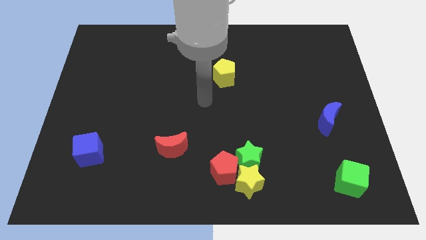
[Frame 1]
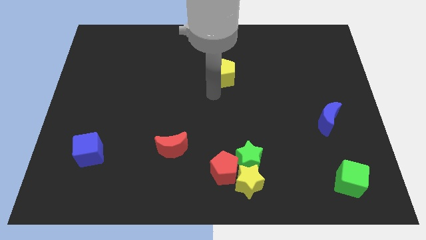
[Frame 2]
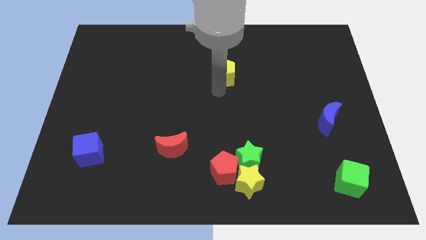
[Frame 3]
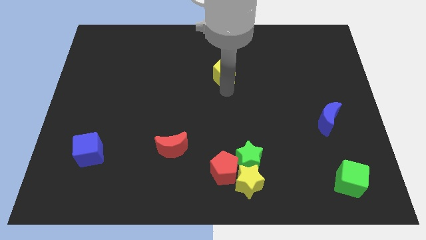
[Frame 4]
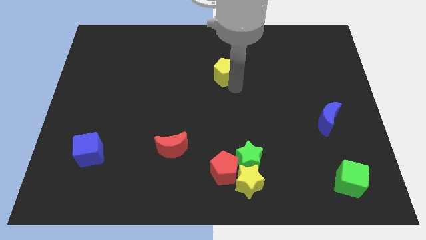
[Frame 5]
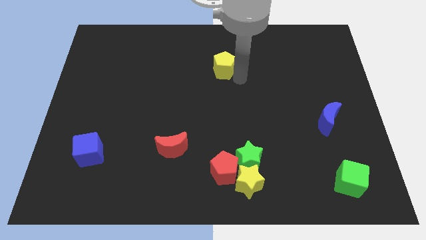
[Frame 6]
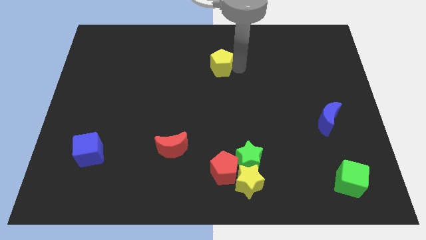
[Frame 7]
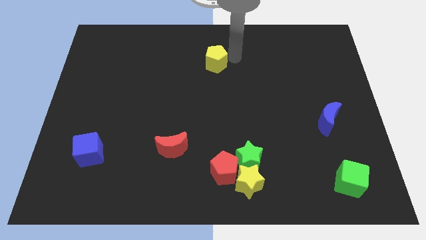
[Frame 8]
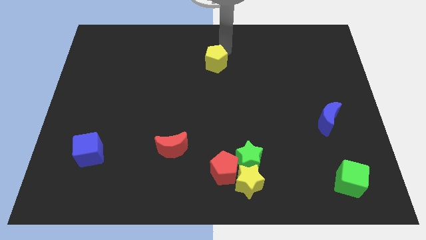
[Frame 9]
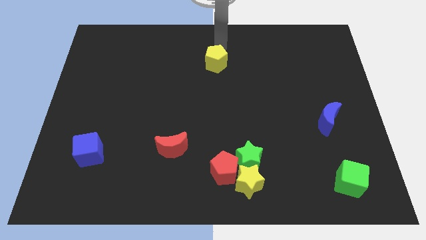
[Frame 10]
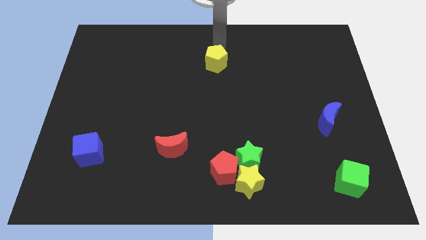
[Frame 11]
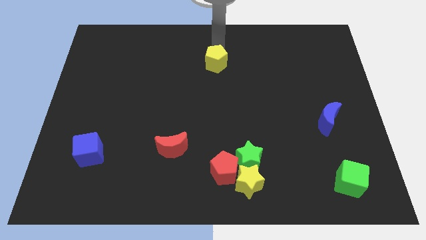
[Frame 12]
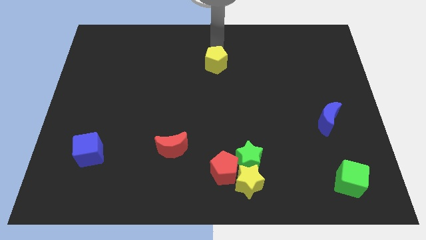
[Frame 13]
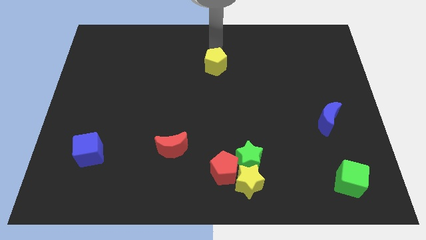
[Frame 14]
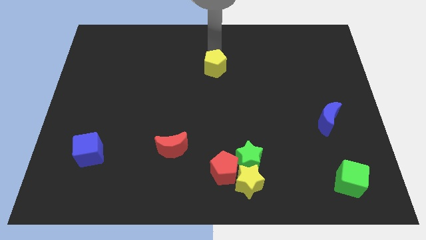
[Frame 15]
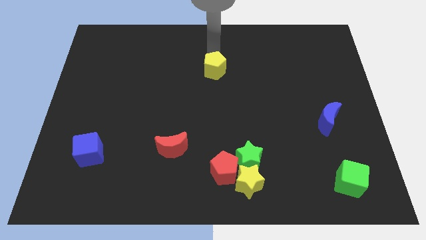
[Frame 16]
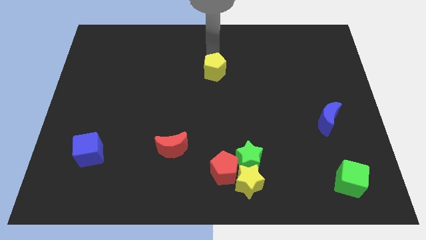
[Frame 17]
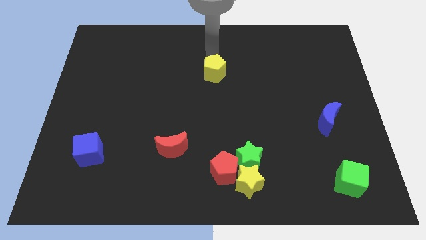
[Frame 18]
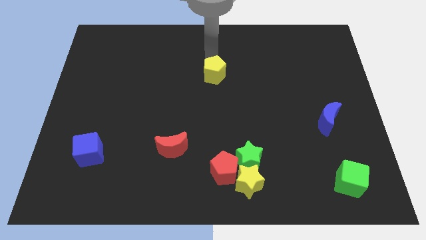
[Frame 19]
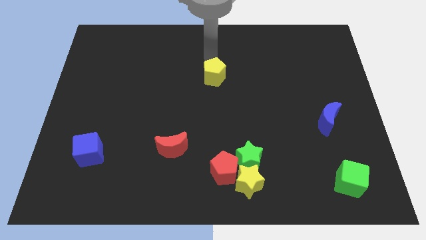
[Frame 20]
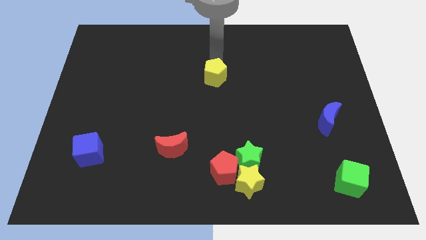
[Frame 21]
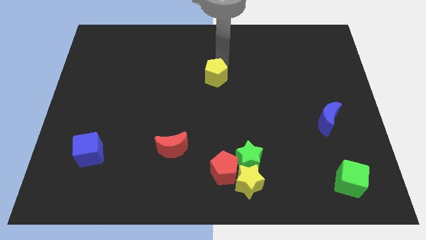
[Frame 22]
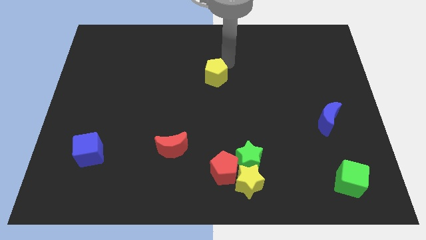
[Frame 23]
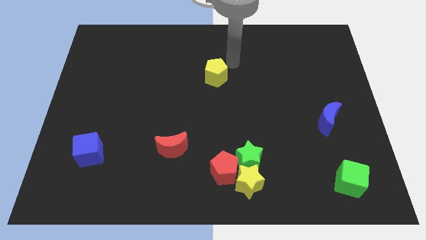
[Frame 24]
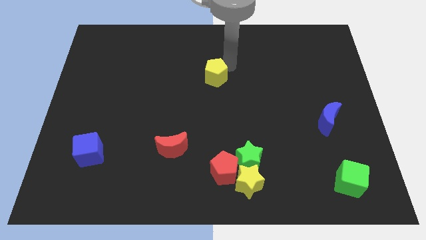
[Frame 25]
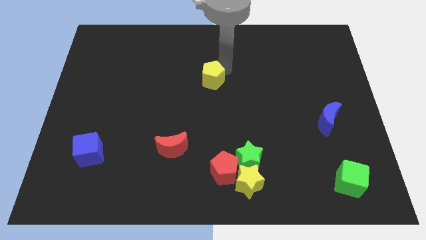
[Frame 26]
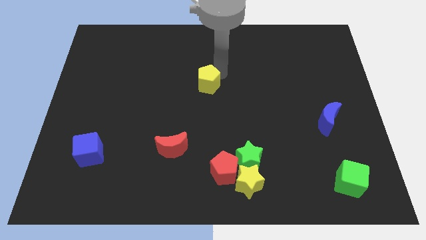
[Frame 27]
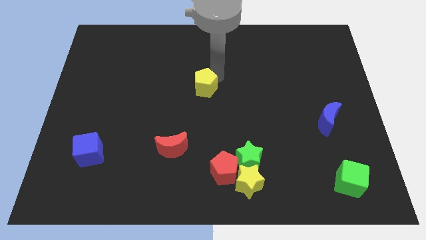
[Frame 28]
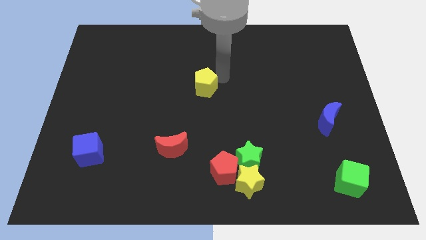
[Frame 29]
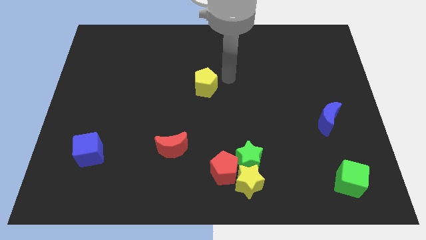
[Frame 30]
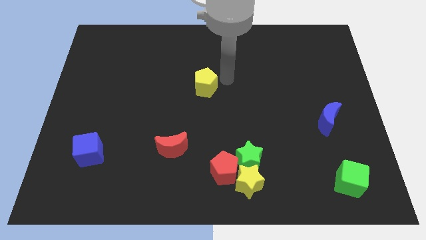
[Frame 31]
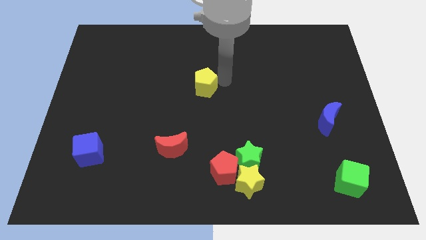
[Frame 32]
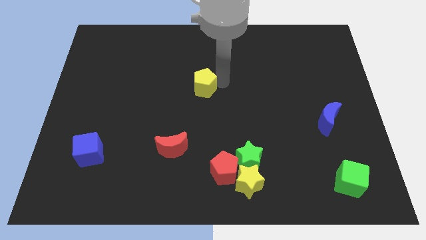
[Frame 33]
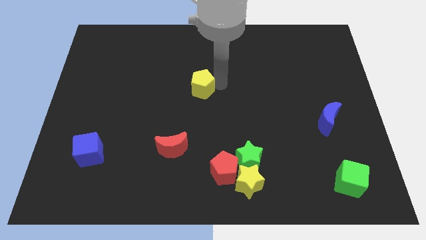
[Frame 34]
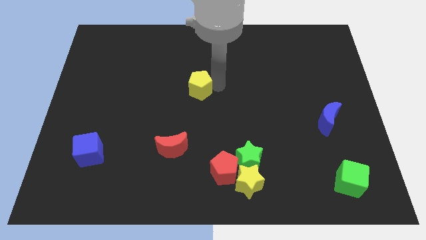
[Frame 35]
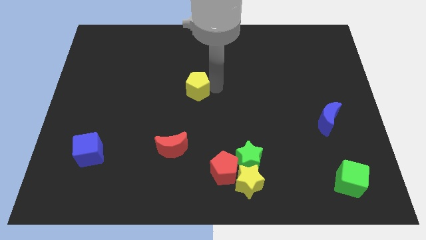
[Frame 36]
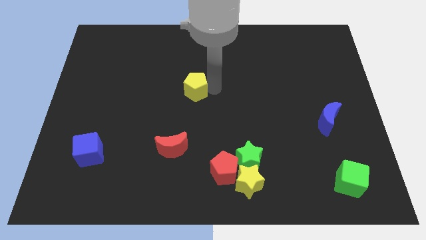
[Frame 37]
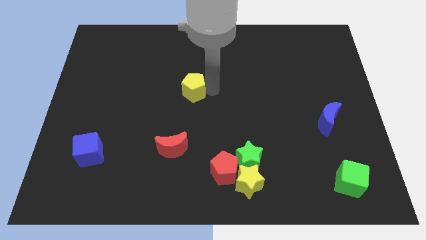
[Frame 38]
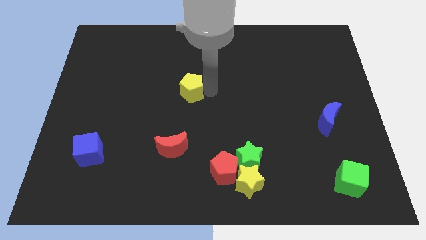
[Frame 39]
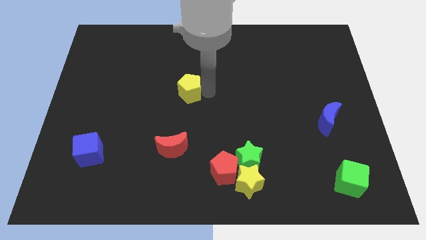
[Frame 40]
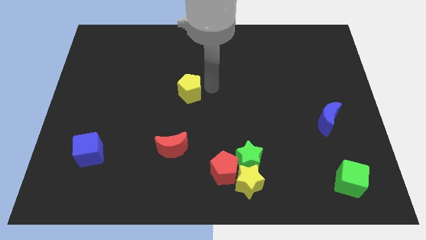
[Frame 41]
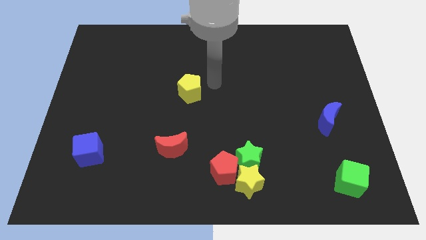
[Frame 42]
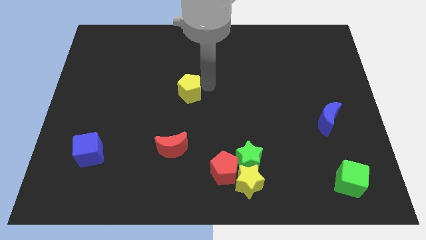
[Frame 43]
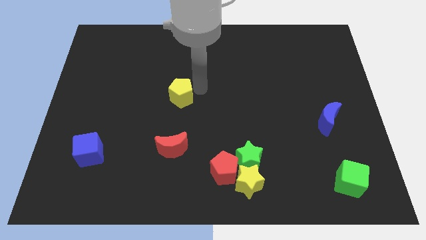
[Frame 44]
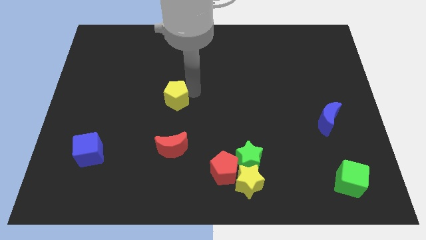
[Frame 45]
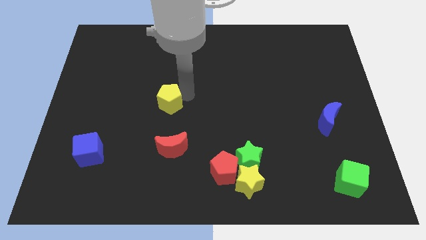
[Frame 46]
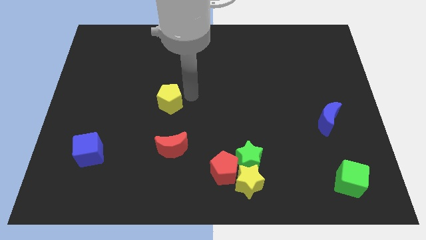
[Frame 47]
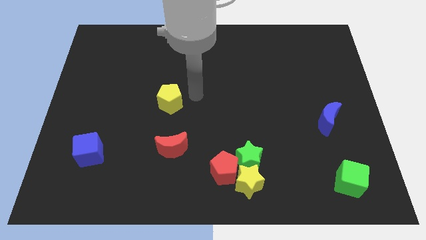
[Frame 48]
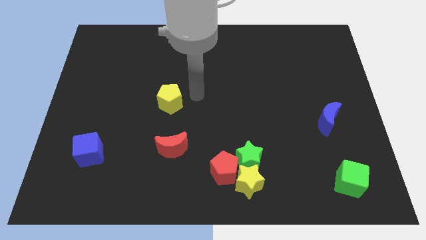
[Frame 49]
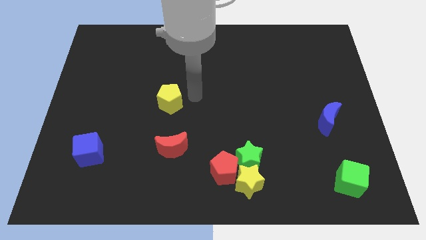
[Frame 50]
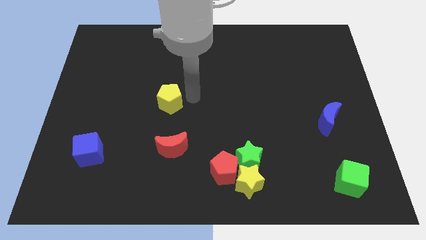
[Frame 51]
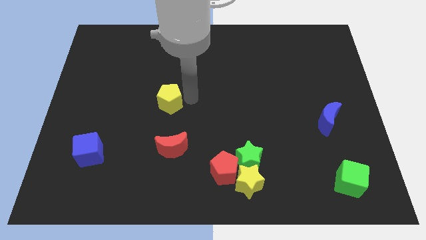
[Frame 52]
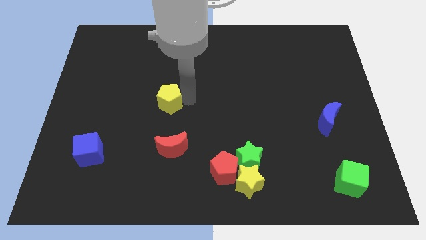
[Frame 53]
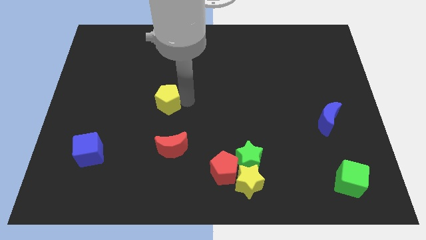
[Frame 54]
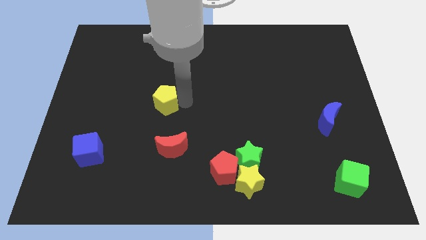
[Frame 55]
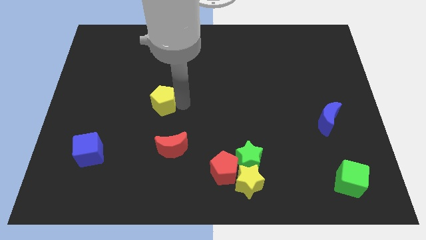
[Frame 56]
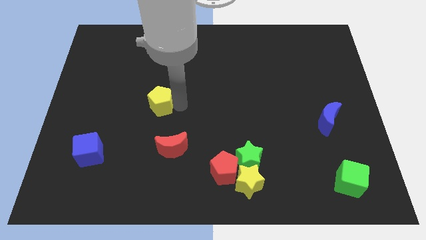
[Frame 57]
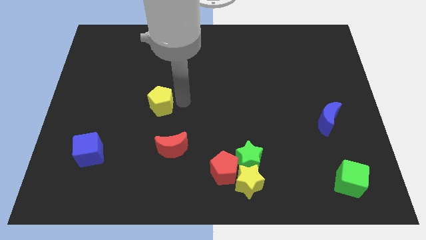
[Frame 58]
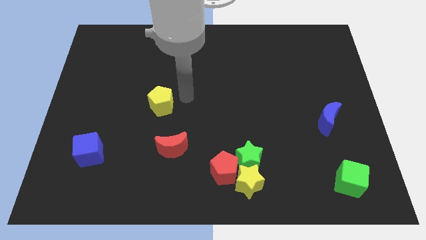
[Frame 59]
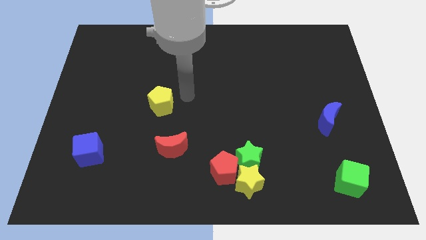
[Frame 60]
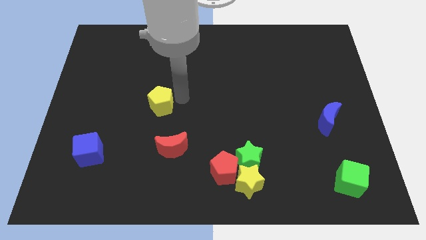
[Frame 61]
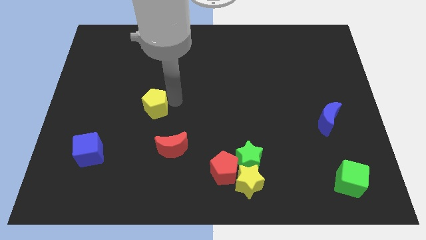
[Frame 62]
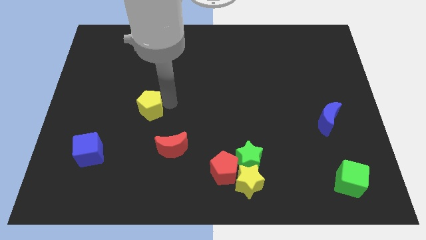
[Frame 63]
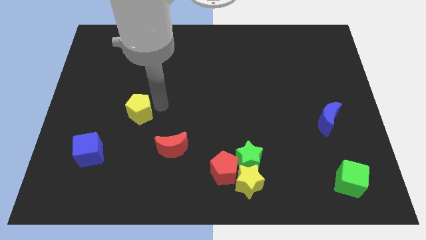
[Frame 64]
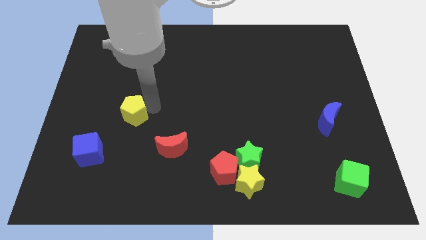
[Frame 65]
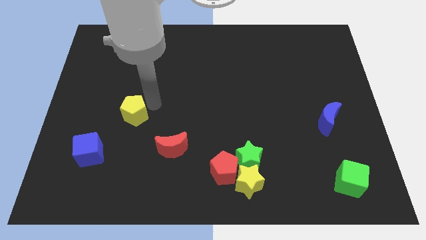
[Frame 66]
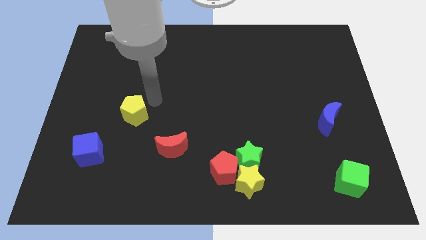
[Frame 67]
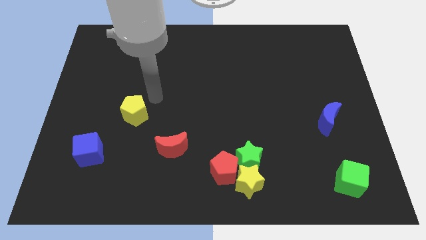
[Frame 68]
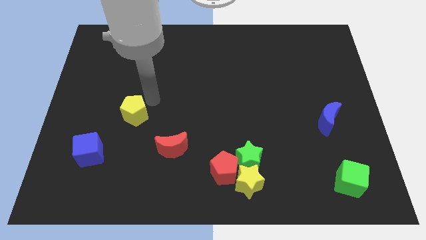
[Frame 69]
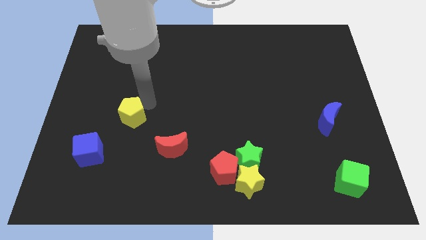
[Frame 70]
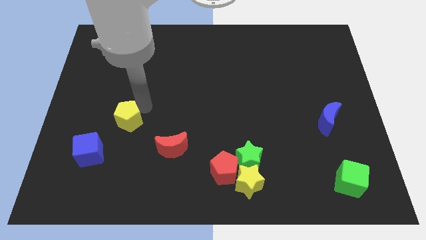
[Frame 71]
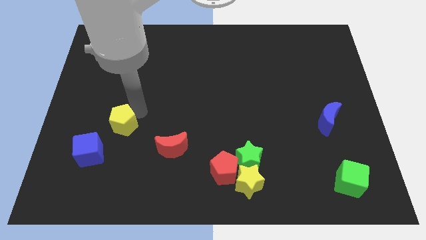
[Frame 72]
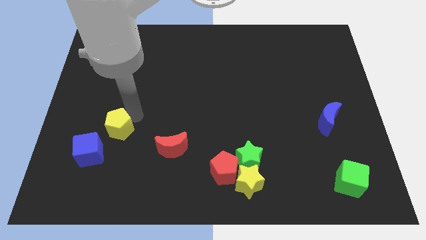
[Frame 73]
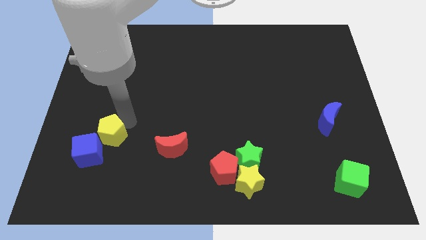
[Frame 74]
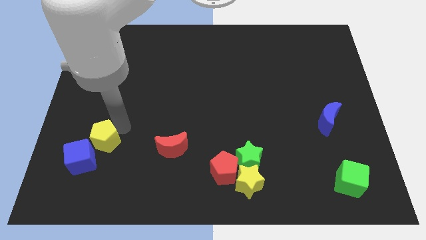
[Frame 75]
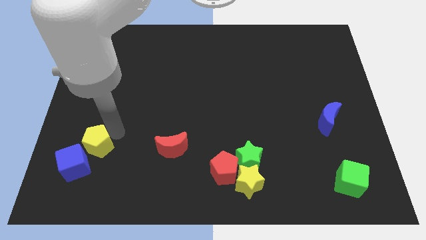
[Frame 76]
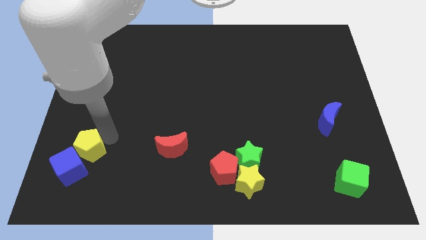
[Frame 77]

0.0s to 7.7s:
move the yellow pentagon towards the blue cube
